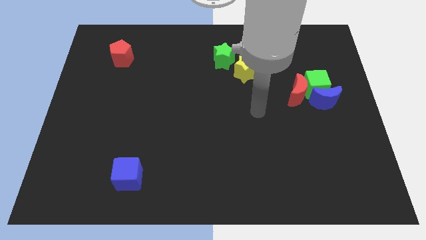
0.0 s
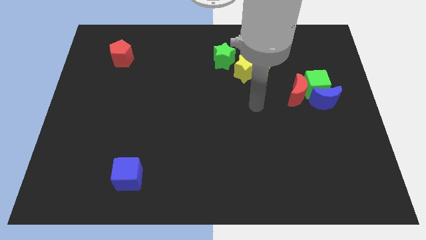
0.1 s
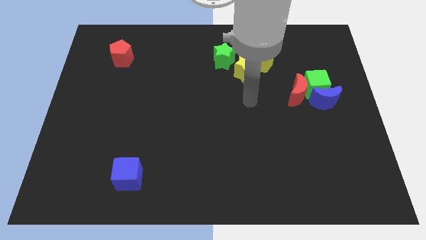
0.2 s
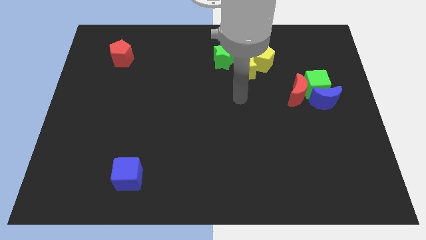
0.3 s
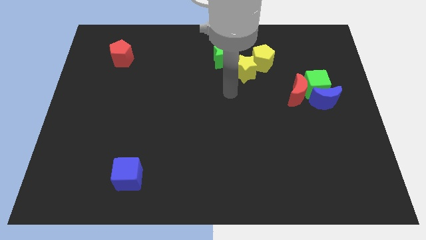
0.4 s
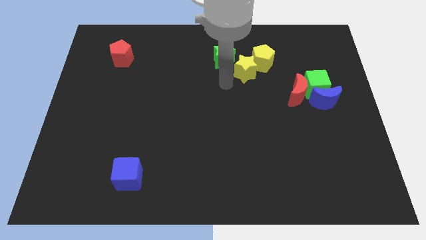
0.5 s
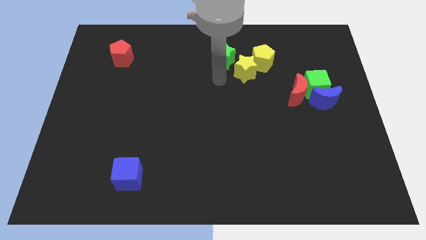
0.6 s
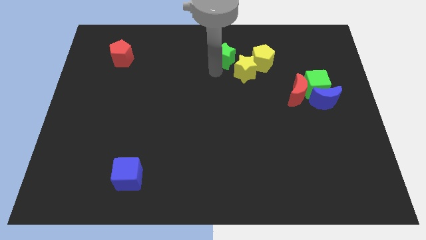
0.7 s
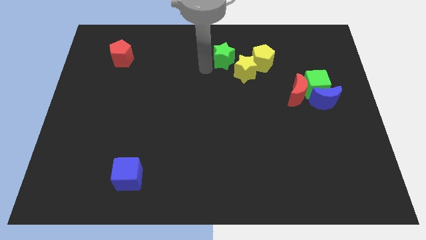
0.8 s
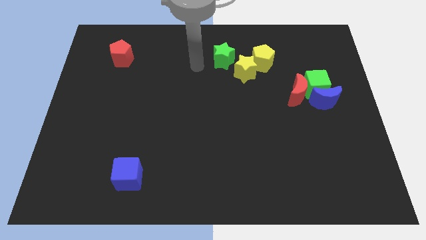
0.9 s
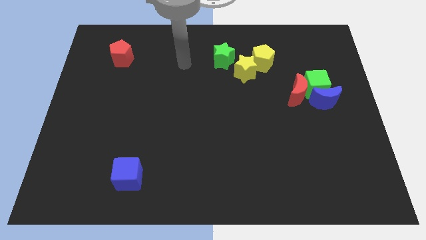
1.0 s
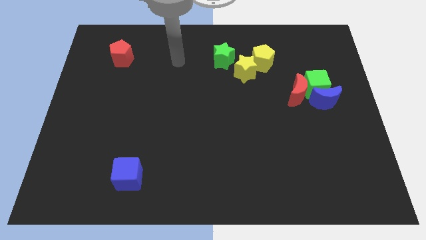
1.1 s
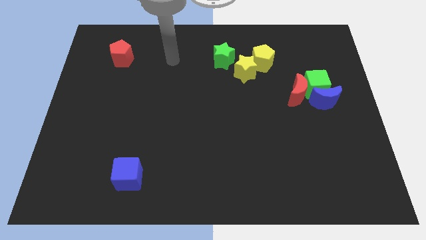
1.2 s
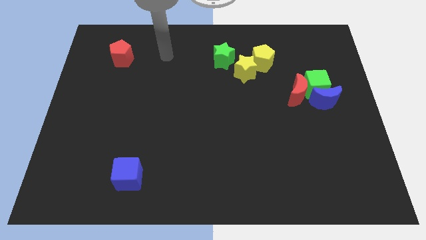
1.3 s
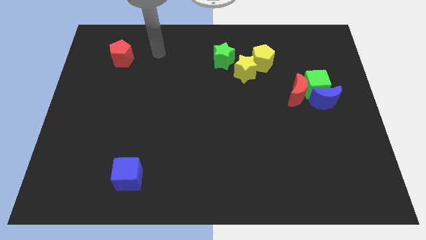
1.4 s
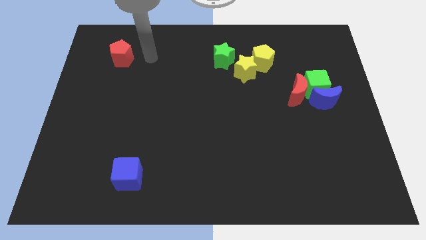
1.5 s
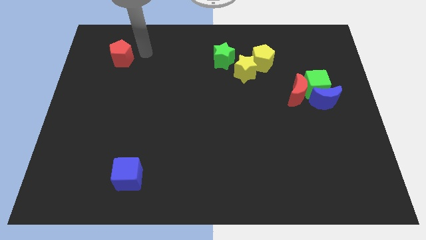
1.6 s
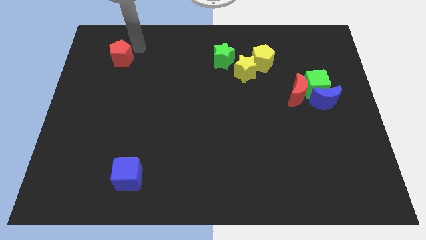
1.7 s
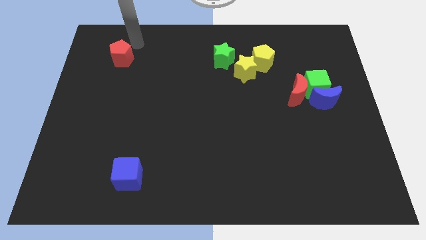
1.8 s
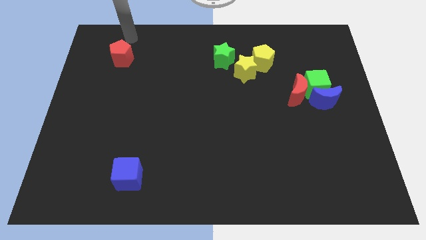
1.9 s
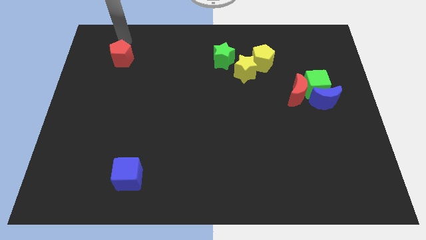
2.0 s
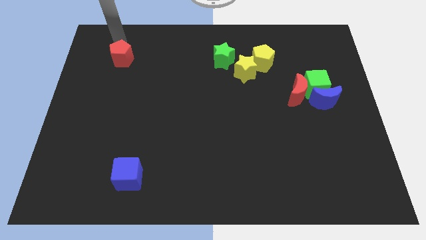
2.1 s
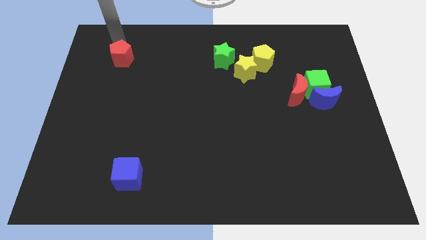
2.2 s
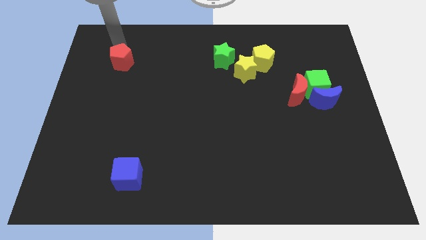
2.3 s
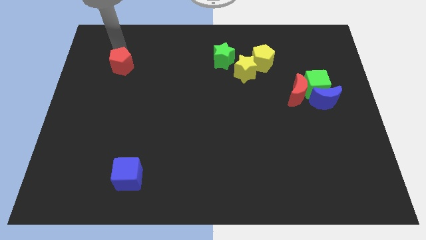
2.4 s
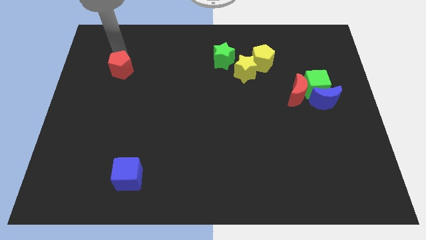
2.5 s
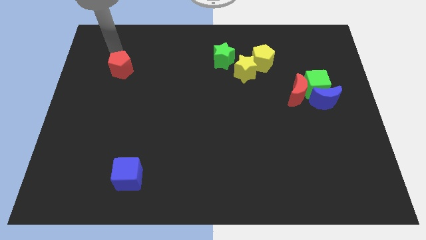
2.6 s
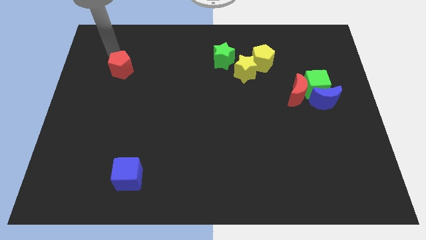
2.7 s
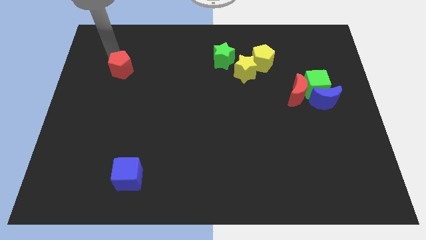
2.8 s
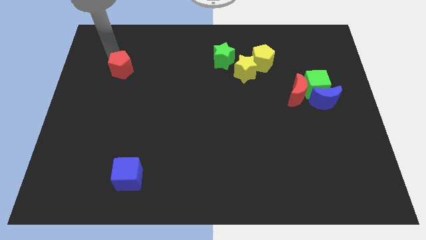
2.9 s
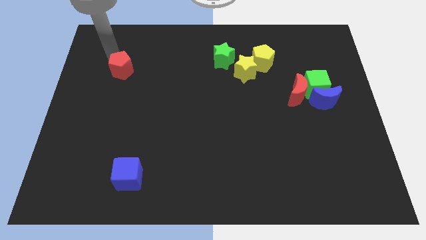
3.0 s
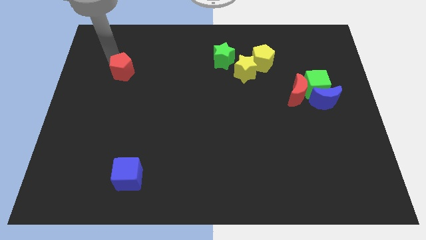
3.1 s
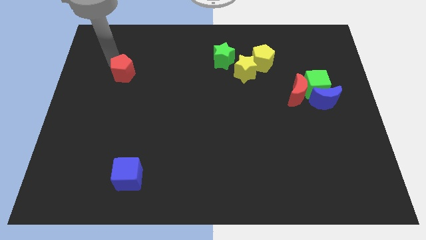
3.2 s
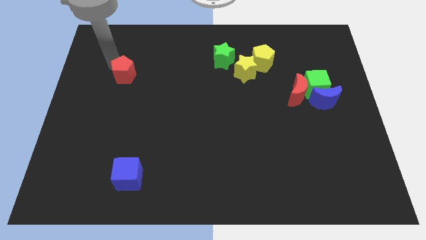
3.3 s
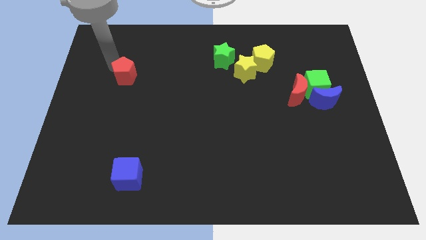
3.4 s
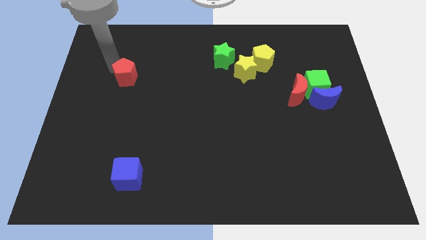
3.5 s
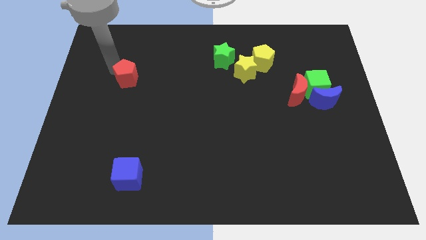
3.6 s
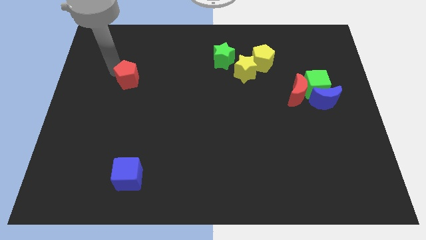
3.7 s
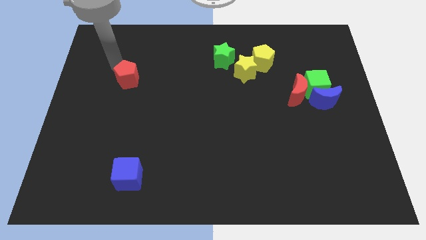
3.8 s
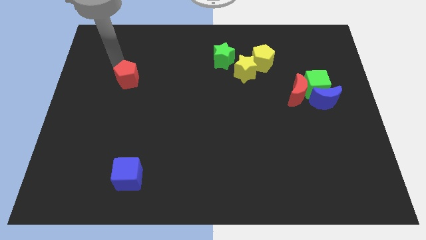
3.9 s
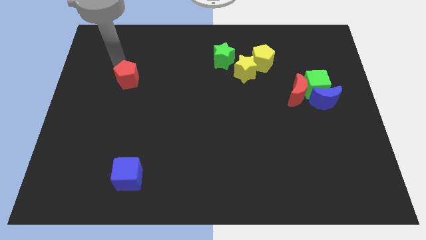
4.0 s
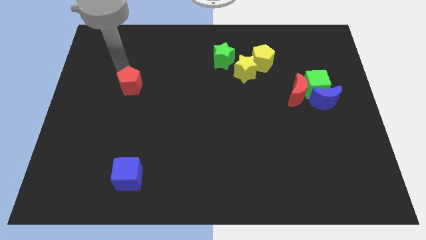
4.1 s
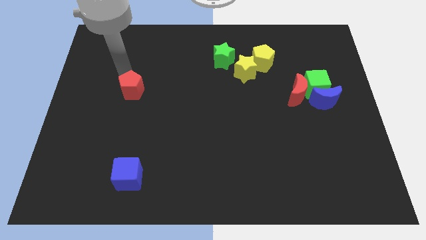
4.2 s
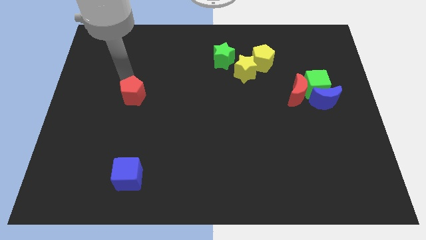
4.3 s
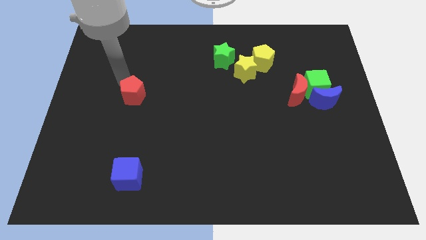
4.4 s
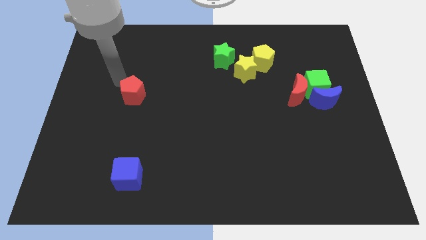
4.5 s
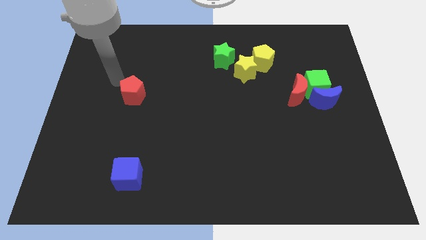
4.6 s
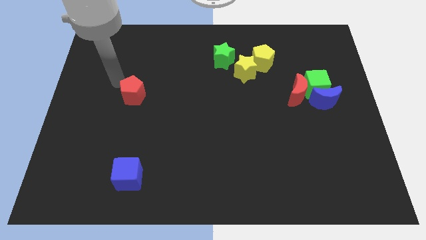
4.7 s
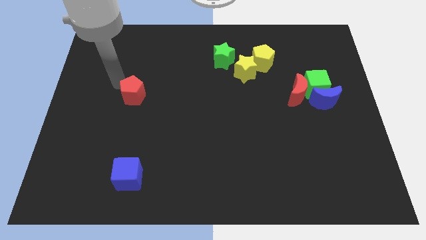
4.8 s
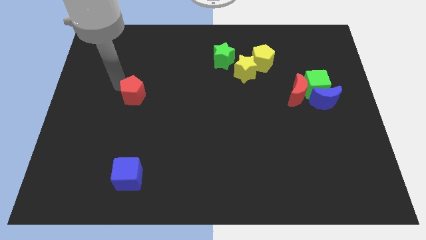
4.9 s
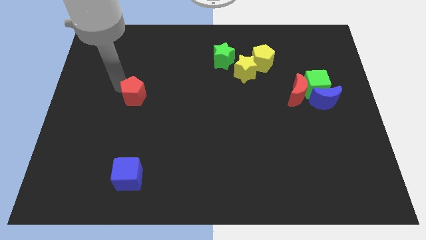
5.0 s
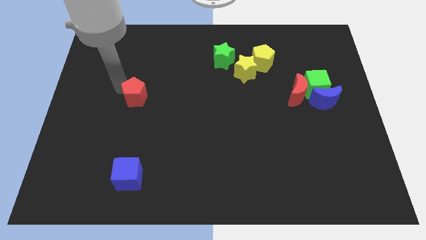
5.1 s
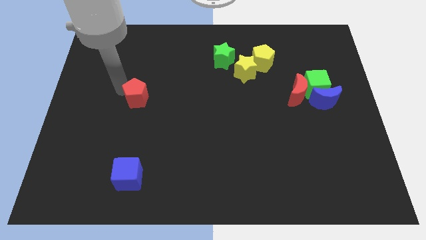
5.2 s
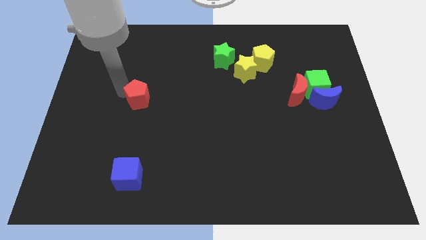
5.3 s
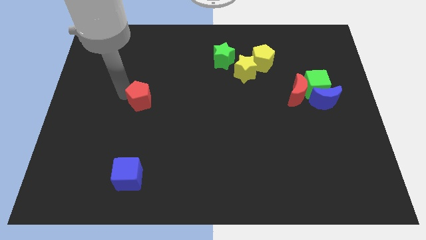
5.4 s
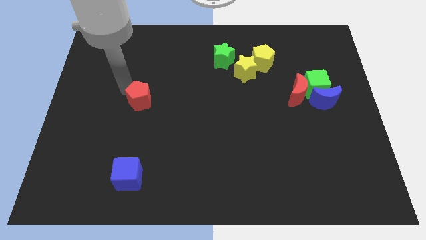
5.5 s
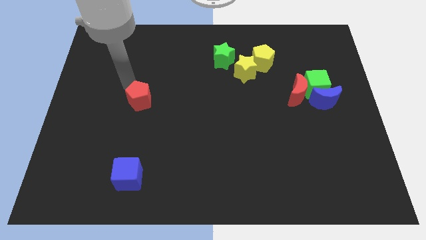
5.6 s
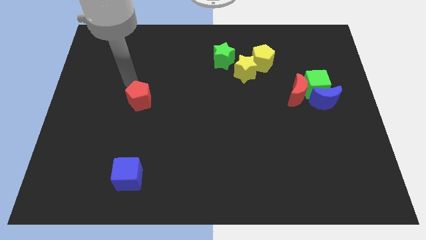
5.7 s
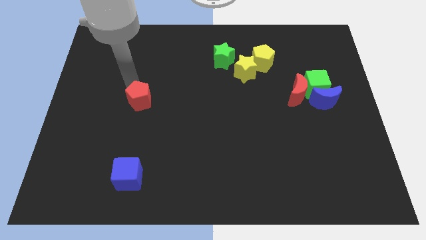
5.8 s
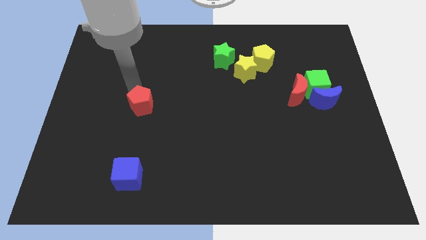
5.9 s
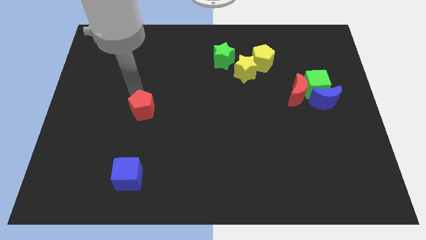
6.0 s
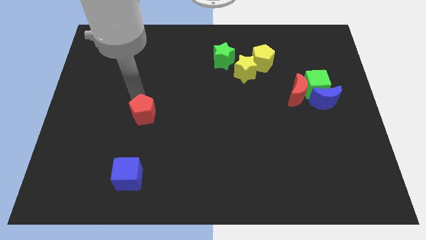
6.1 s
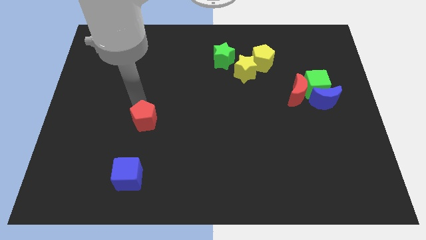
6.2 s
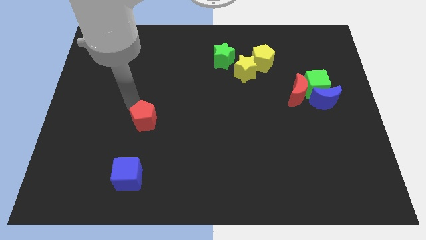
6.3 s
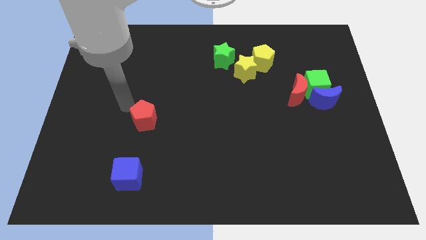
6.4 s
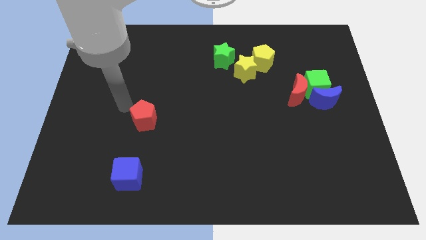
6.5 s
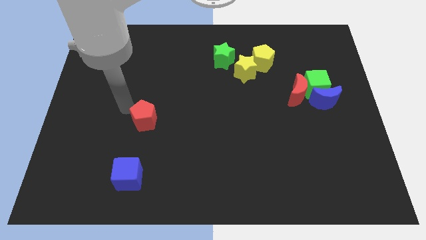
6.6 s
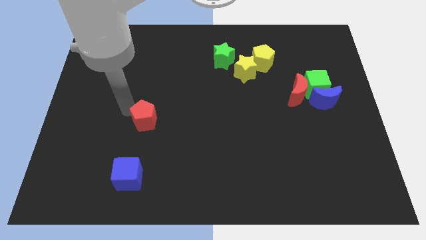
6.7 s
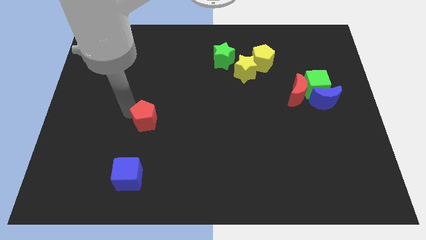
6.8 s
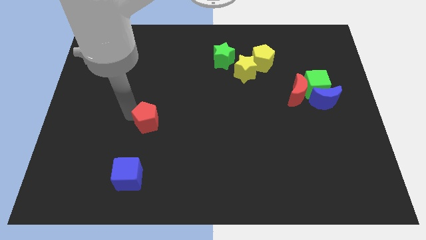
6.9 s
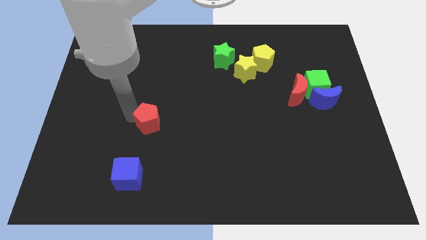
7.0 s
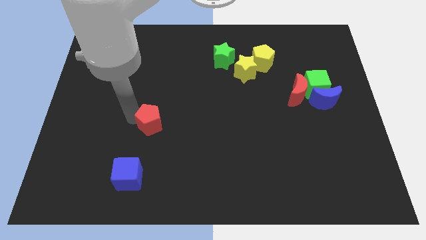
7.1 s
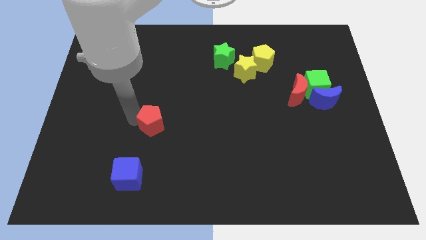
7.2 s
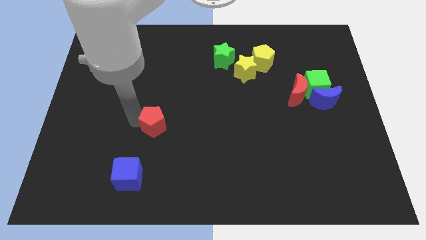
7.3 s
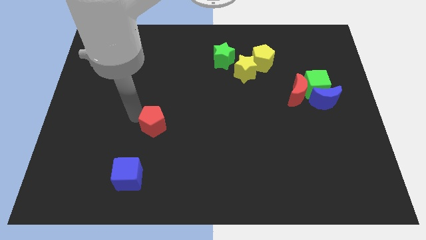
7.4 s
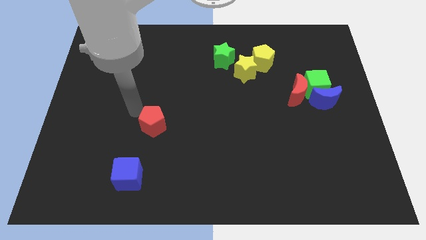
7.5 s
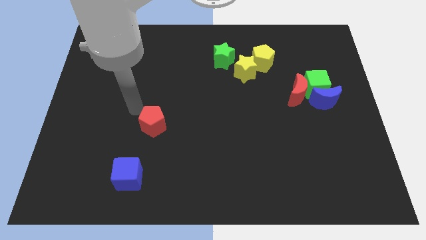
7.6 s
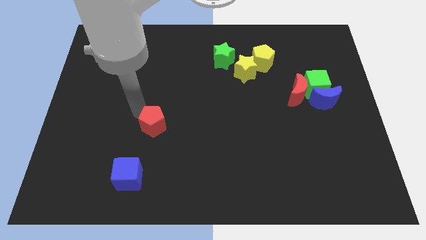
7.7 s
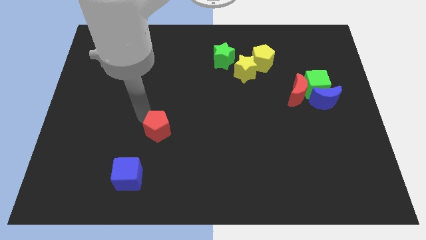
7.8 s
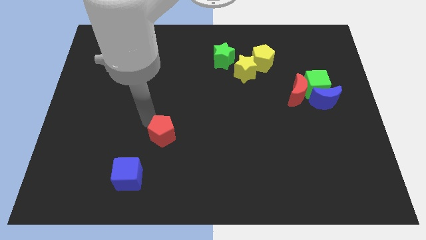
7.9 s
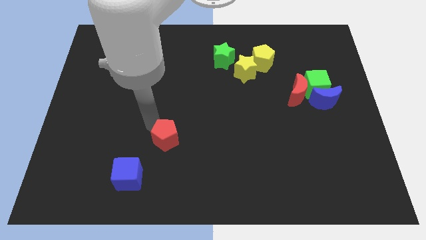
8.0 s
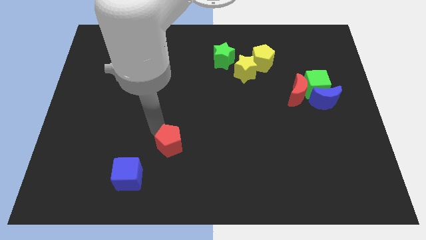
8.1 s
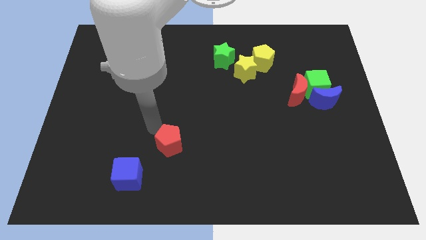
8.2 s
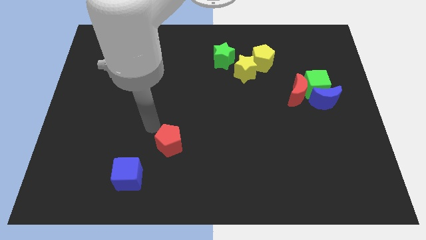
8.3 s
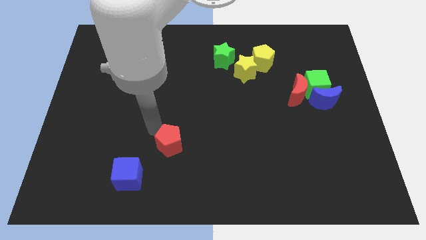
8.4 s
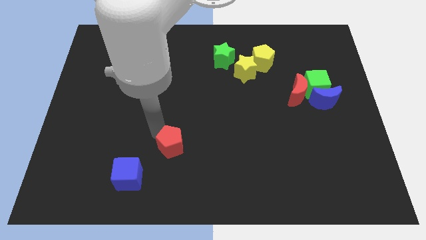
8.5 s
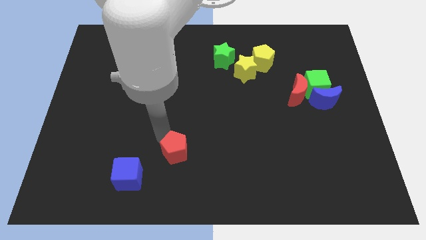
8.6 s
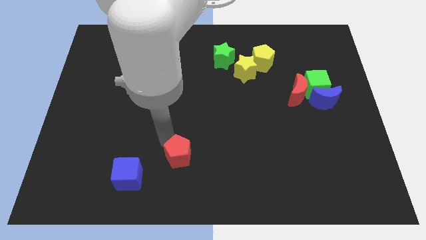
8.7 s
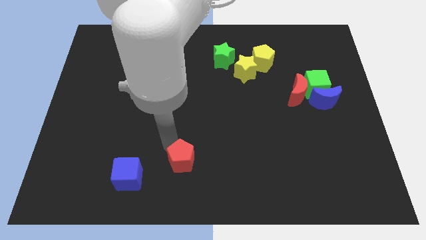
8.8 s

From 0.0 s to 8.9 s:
push the red pentagon to the bottom
